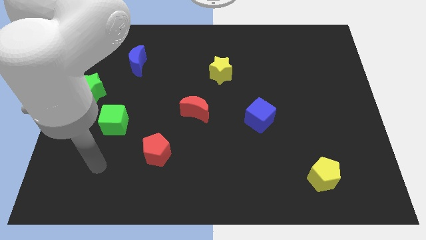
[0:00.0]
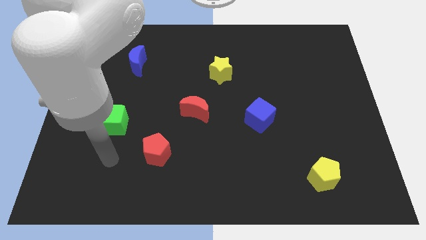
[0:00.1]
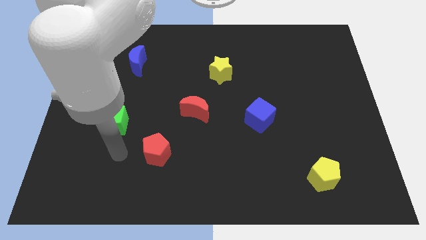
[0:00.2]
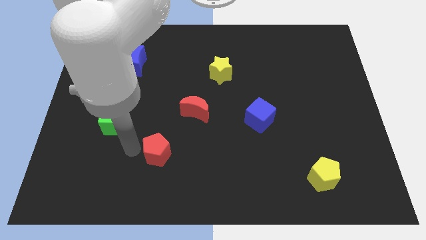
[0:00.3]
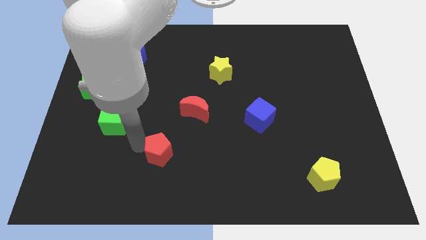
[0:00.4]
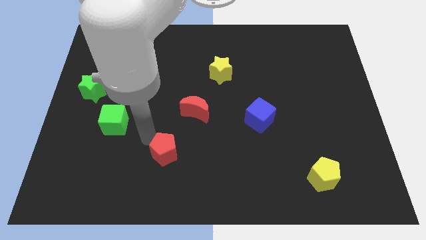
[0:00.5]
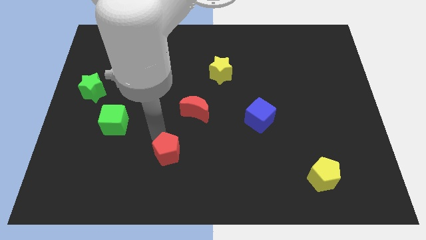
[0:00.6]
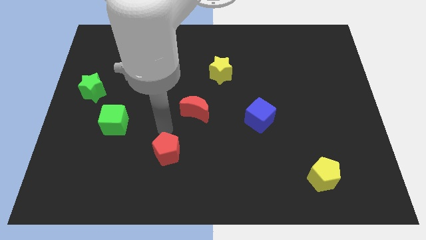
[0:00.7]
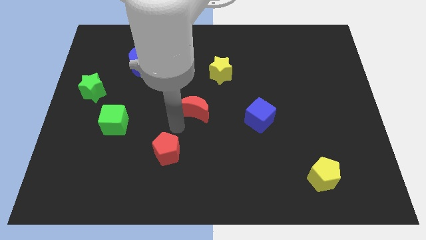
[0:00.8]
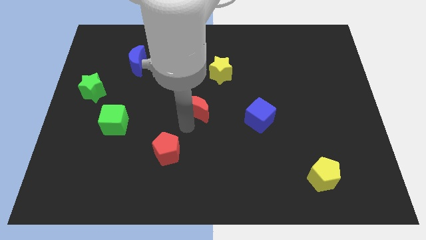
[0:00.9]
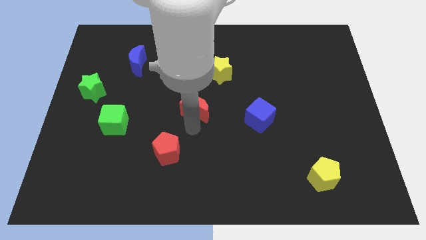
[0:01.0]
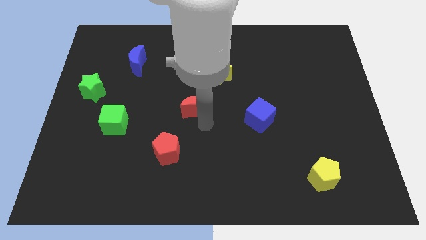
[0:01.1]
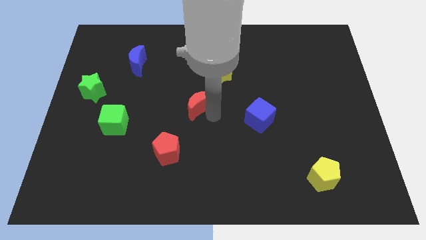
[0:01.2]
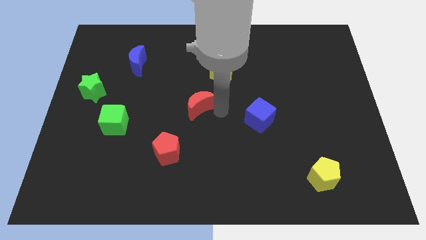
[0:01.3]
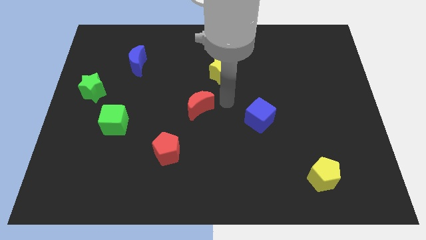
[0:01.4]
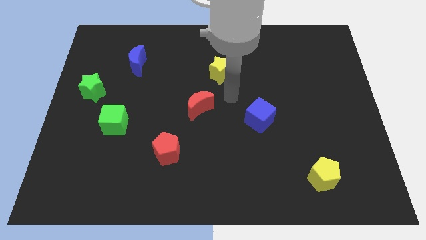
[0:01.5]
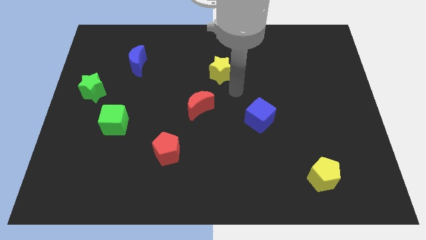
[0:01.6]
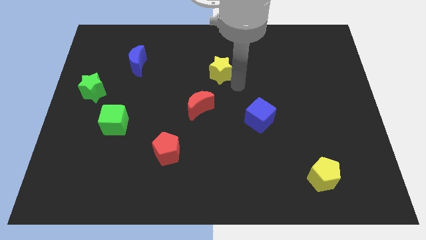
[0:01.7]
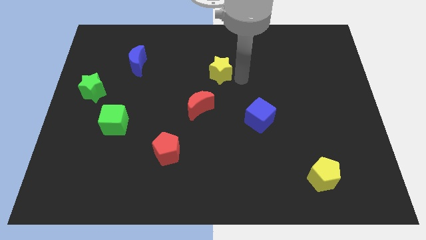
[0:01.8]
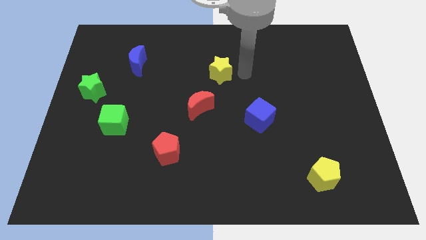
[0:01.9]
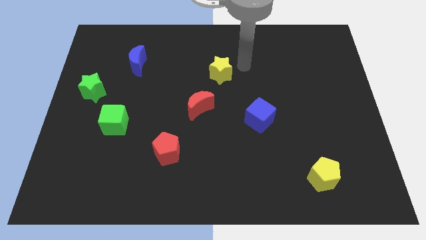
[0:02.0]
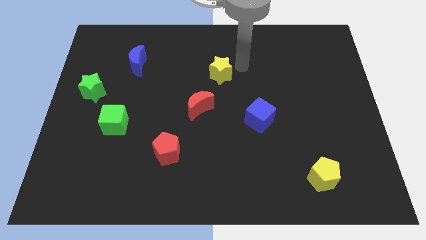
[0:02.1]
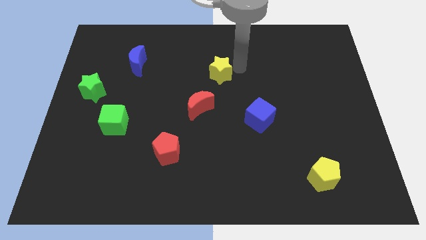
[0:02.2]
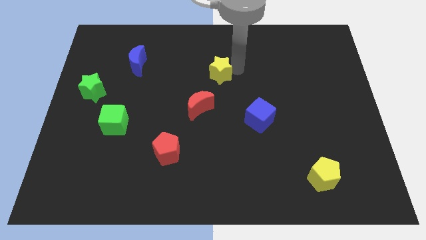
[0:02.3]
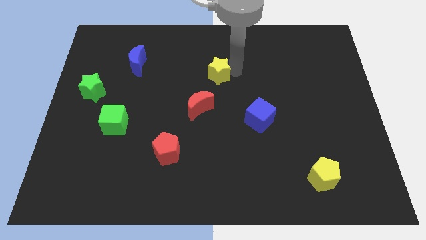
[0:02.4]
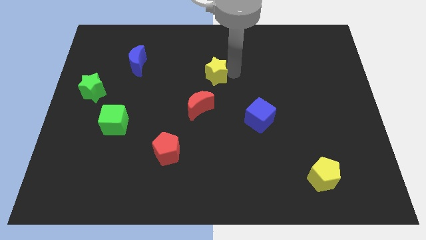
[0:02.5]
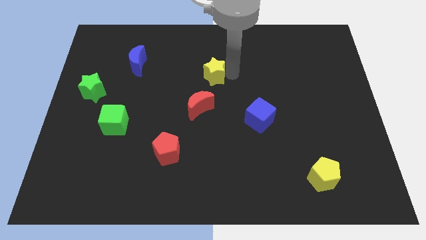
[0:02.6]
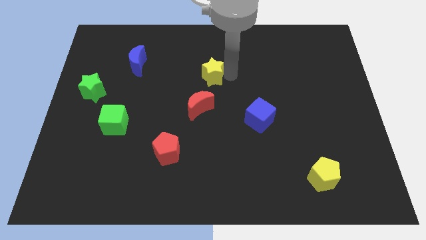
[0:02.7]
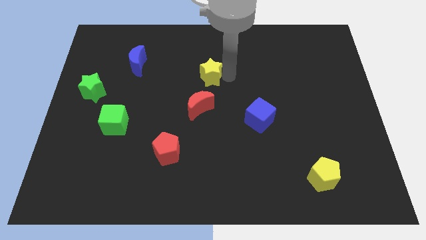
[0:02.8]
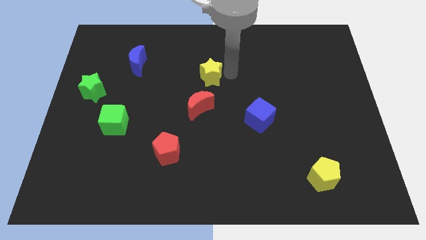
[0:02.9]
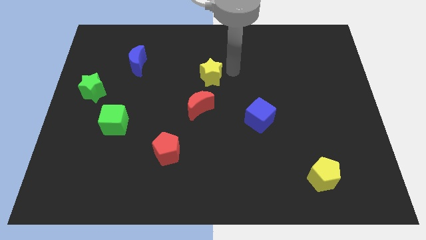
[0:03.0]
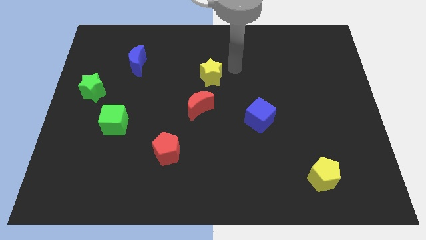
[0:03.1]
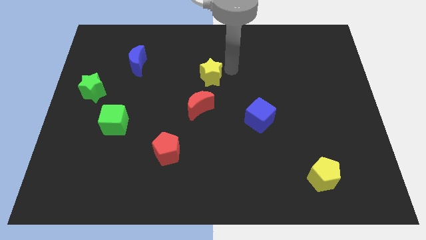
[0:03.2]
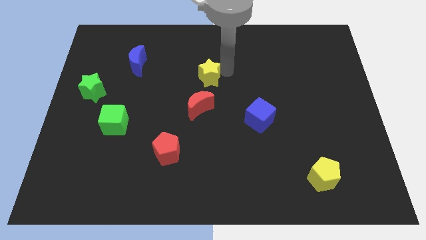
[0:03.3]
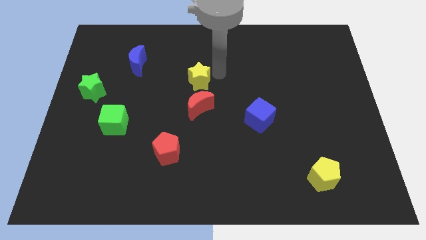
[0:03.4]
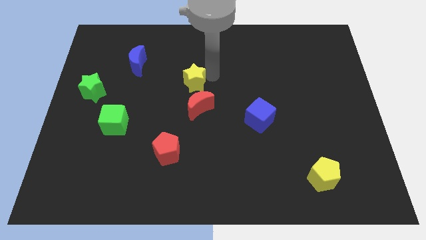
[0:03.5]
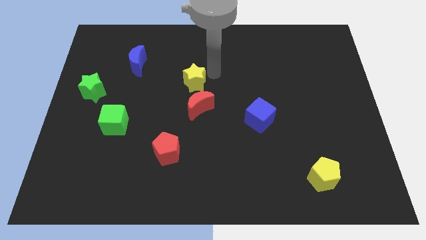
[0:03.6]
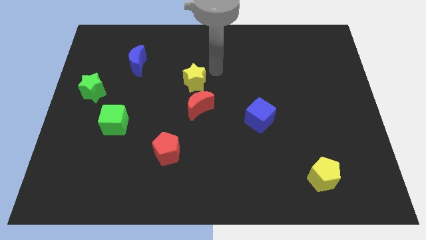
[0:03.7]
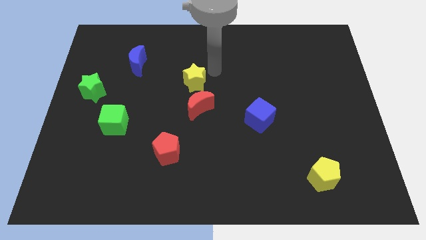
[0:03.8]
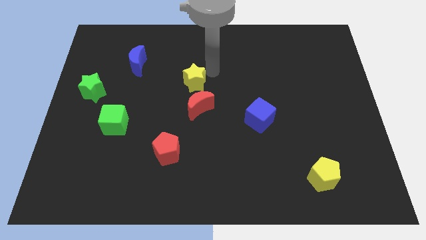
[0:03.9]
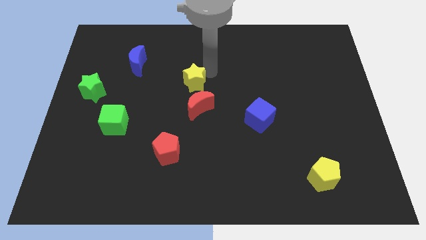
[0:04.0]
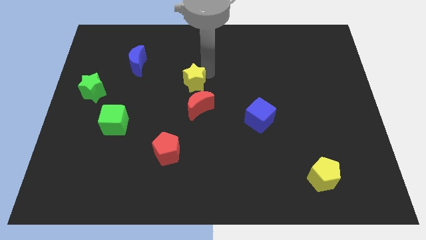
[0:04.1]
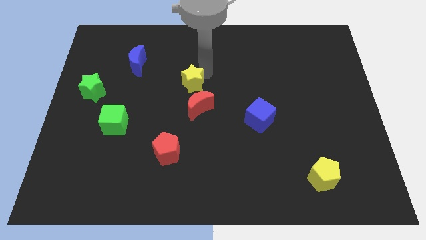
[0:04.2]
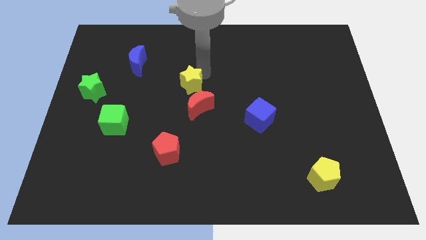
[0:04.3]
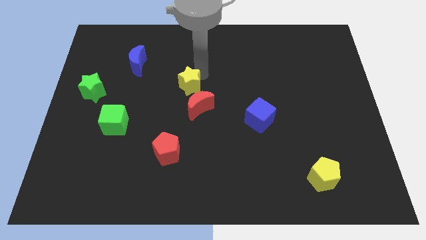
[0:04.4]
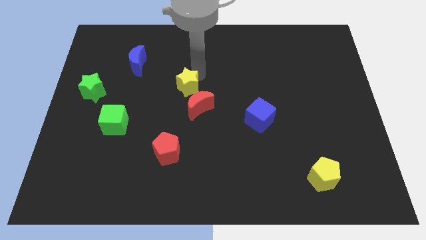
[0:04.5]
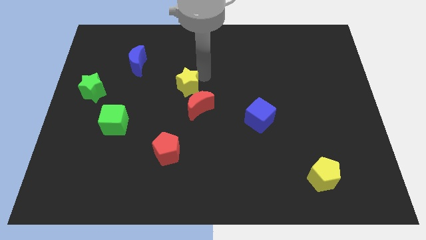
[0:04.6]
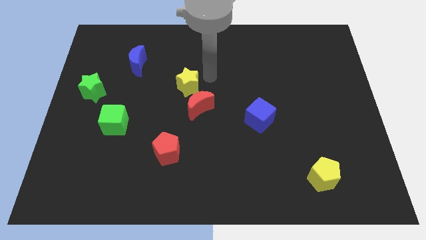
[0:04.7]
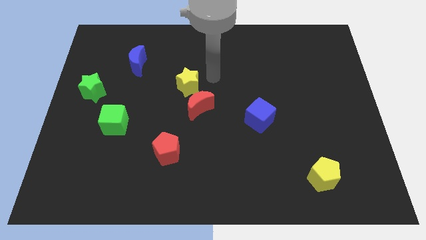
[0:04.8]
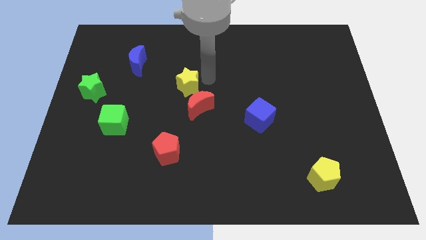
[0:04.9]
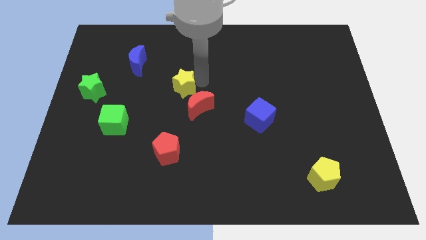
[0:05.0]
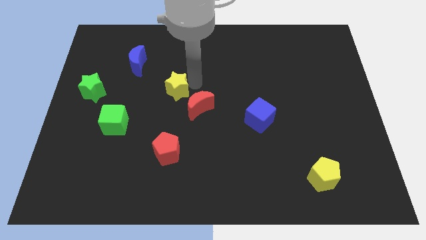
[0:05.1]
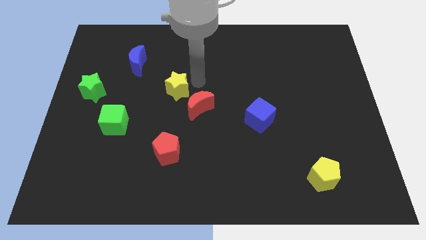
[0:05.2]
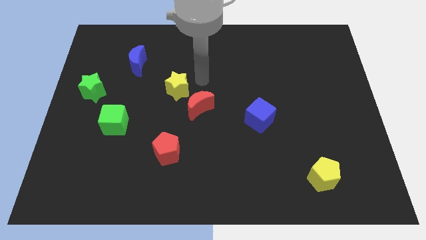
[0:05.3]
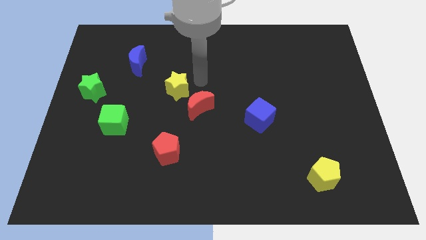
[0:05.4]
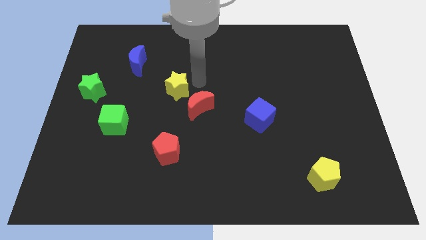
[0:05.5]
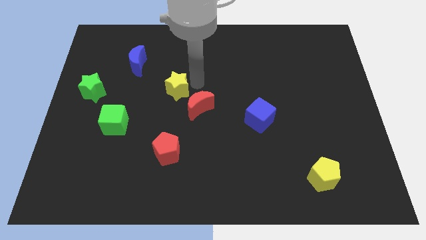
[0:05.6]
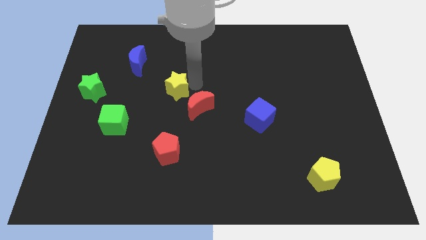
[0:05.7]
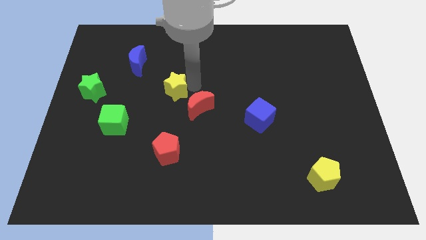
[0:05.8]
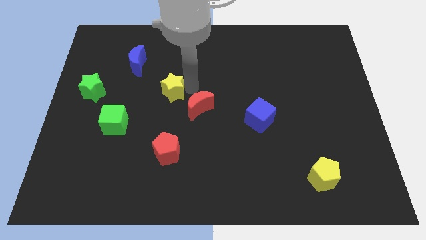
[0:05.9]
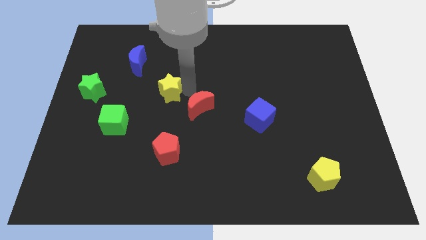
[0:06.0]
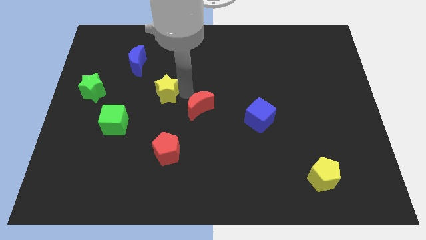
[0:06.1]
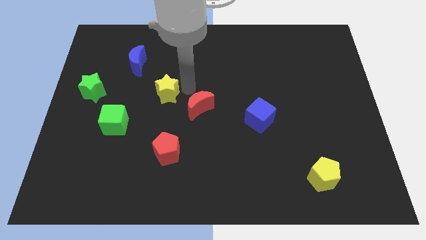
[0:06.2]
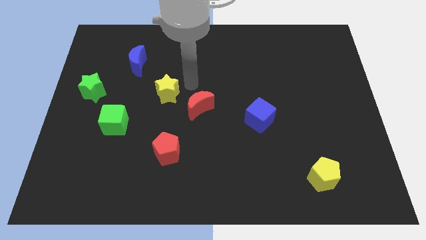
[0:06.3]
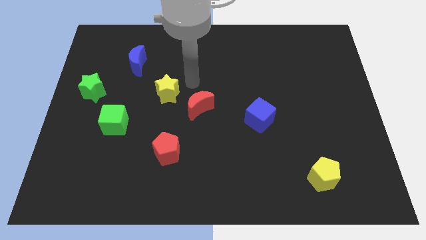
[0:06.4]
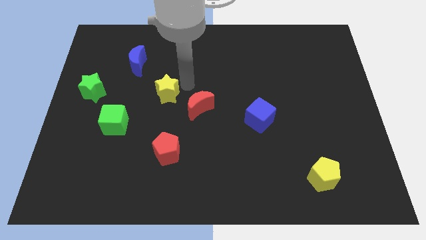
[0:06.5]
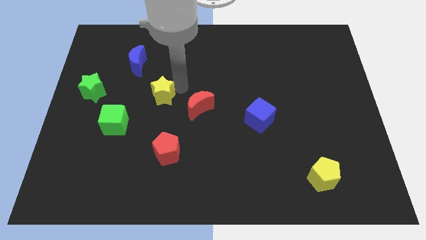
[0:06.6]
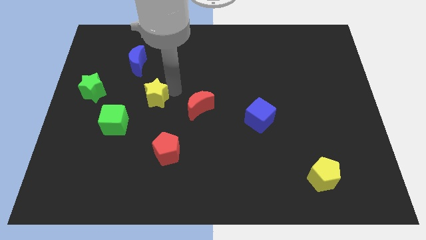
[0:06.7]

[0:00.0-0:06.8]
put the yellow star to the top right of the green cube

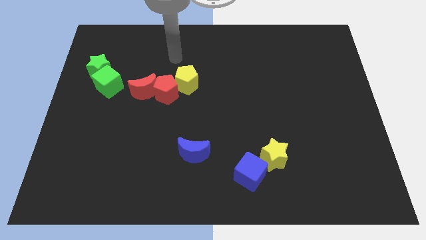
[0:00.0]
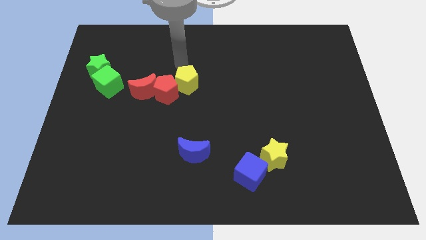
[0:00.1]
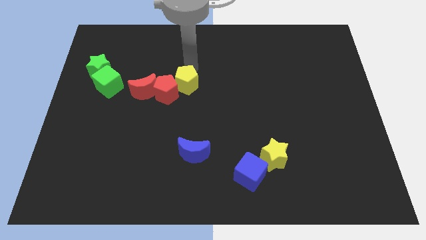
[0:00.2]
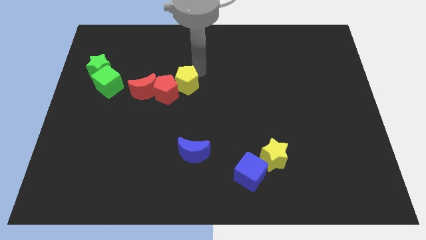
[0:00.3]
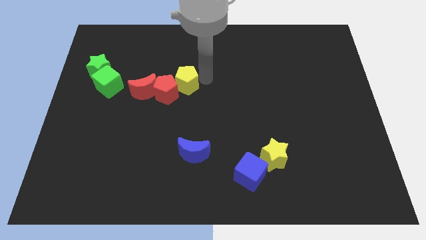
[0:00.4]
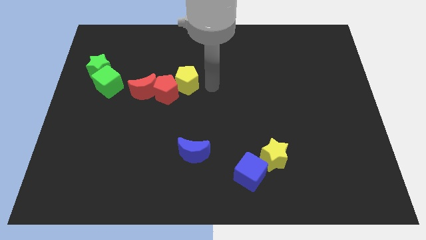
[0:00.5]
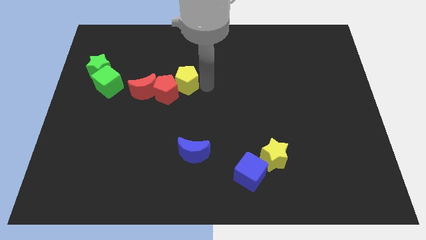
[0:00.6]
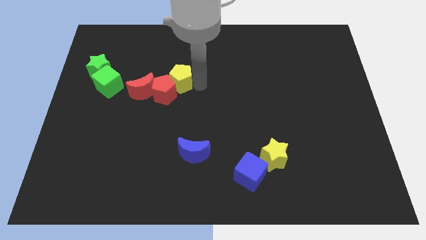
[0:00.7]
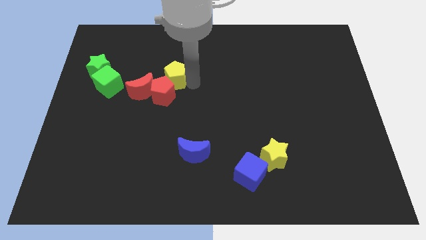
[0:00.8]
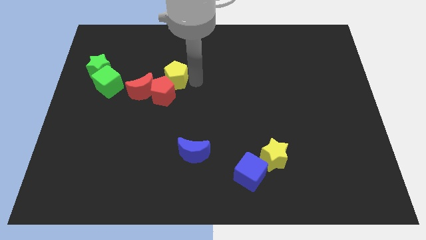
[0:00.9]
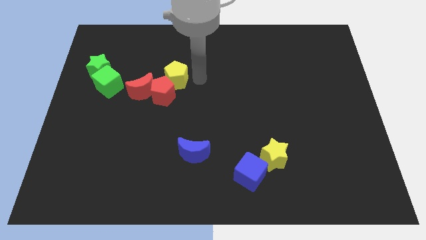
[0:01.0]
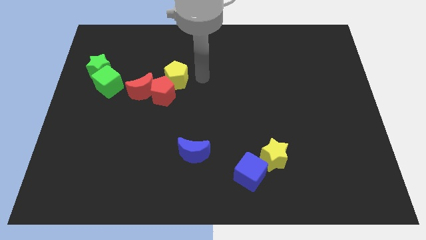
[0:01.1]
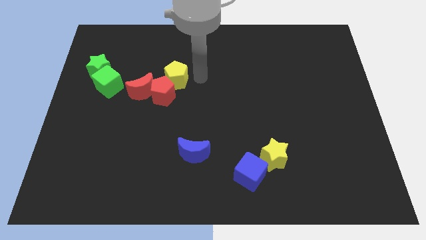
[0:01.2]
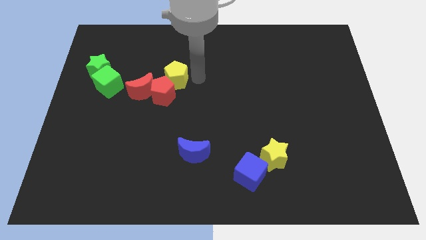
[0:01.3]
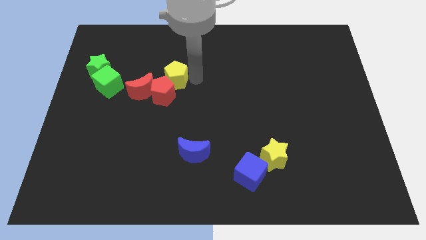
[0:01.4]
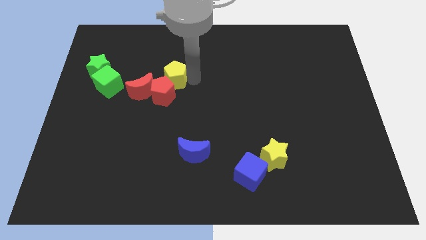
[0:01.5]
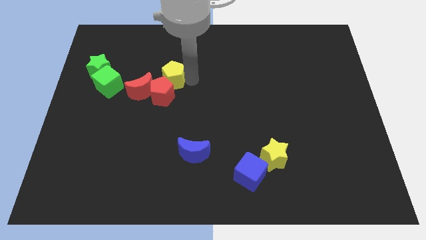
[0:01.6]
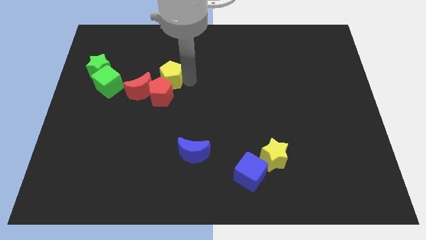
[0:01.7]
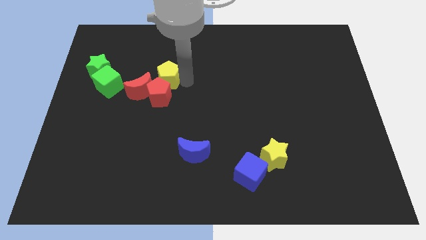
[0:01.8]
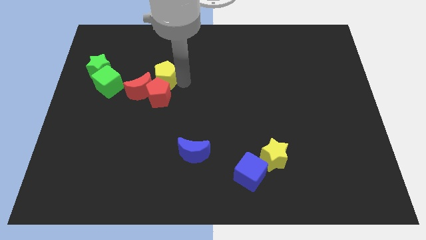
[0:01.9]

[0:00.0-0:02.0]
push the yellow pentagon to the top left side of the red pentagon
